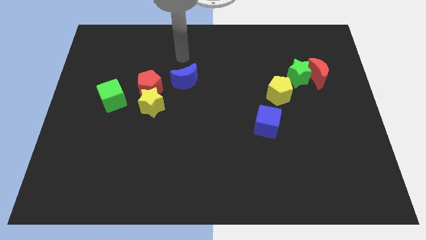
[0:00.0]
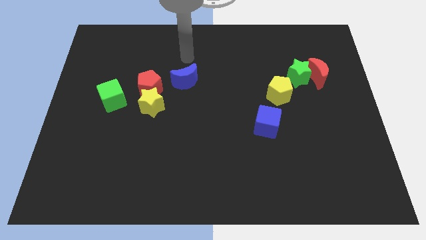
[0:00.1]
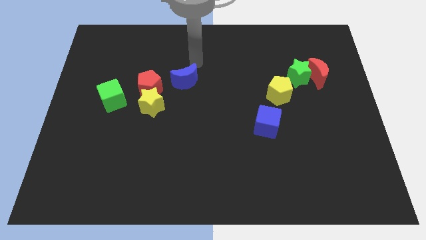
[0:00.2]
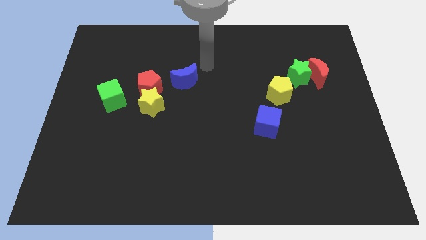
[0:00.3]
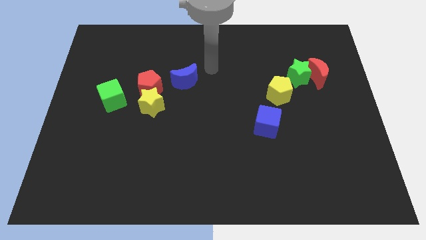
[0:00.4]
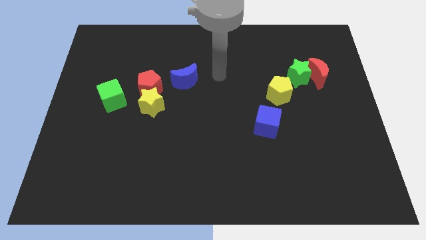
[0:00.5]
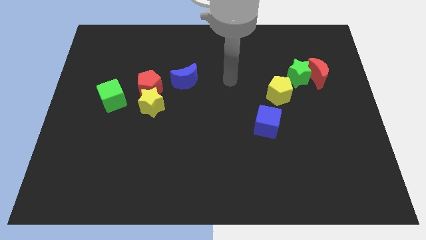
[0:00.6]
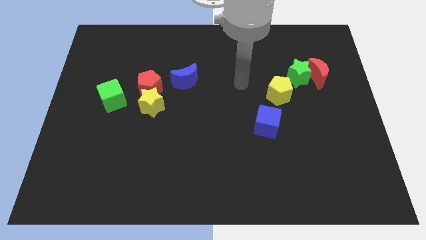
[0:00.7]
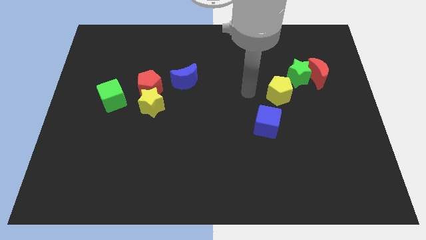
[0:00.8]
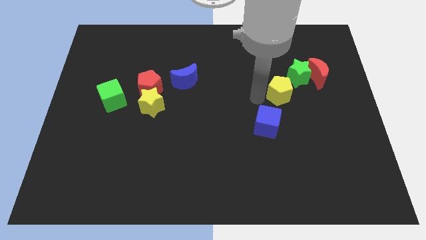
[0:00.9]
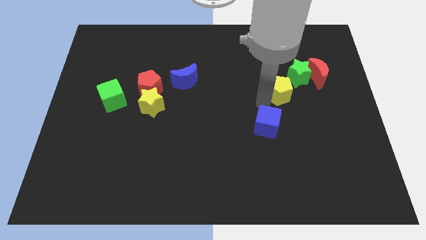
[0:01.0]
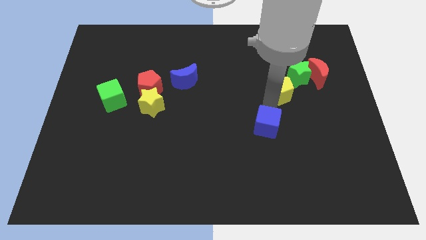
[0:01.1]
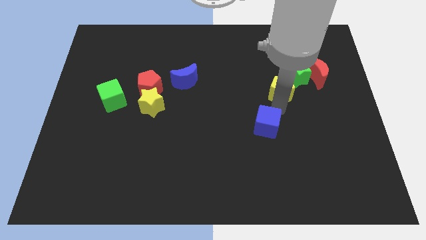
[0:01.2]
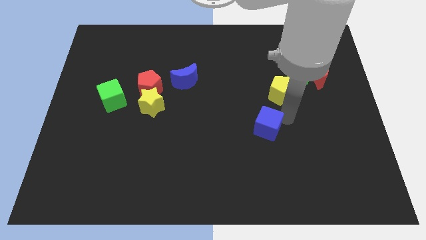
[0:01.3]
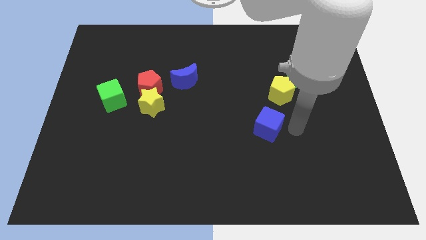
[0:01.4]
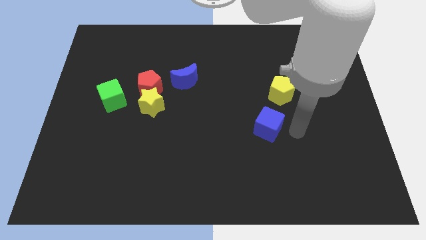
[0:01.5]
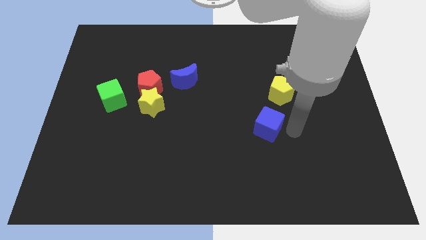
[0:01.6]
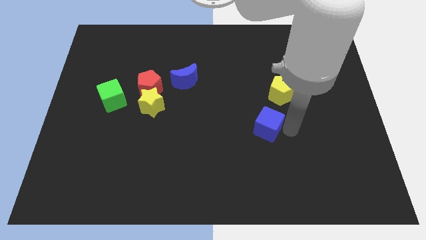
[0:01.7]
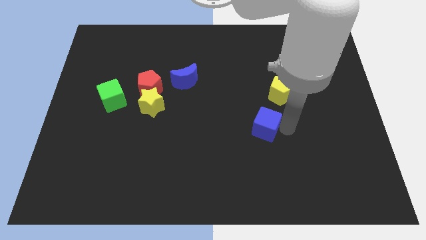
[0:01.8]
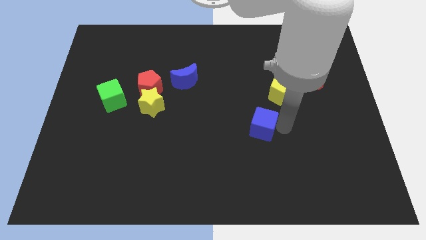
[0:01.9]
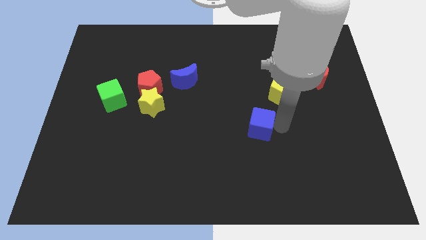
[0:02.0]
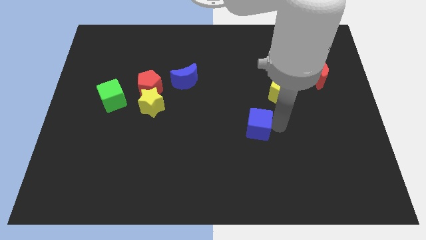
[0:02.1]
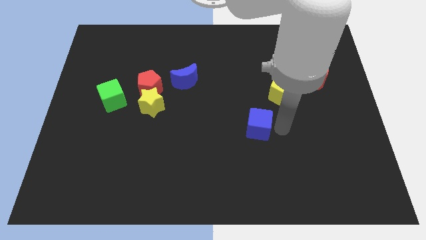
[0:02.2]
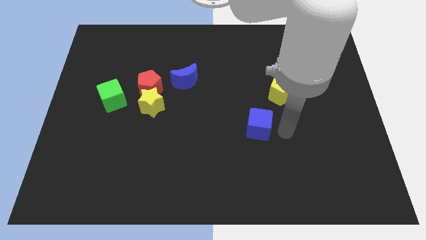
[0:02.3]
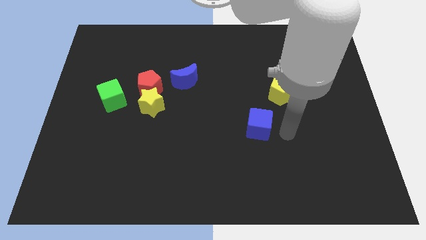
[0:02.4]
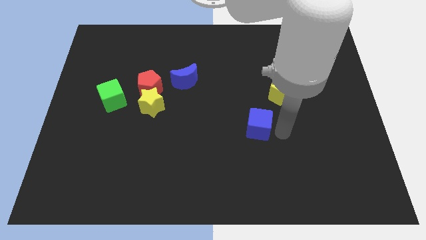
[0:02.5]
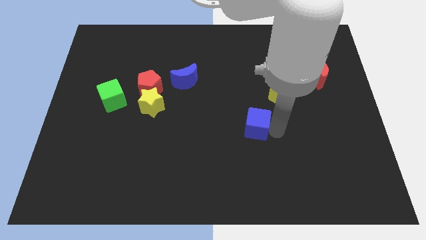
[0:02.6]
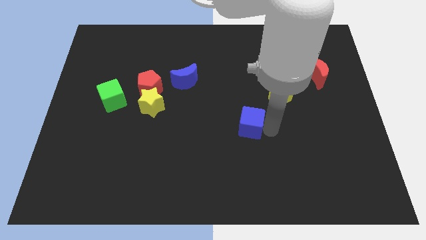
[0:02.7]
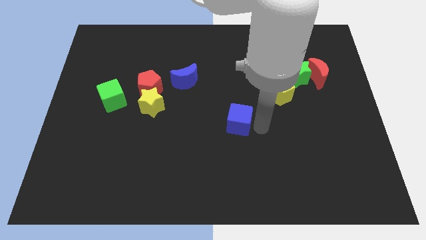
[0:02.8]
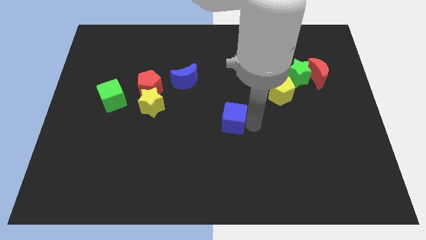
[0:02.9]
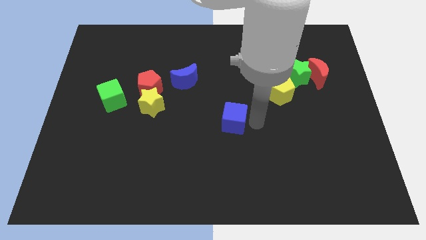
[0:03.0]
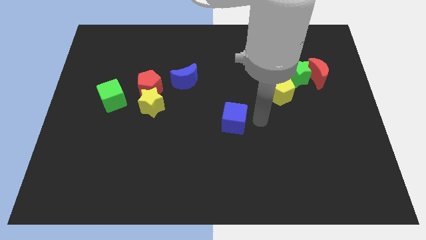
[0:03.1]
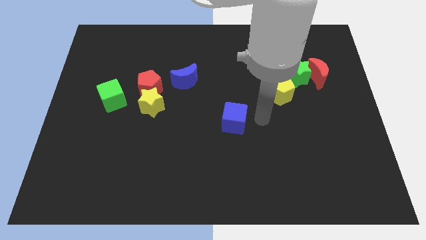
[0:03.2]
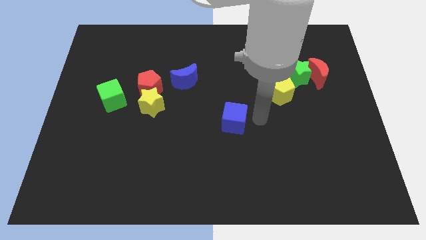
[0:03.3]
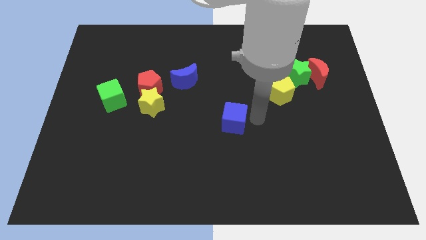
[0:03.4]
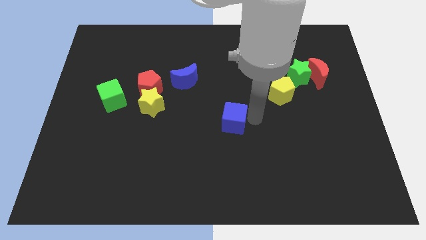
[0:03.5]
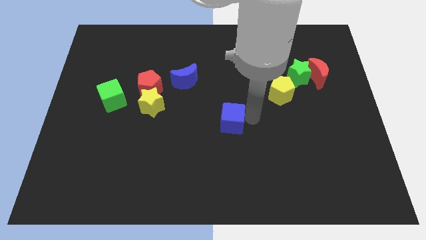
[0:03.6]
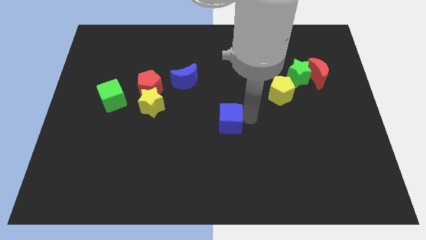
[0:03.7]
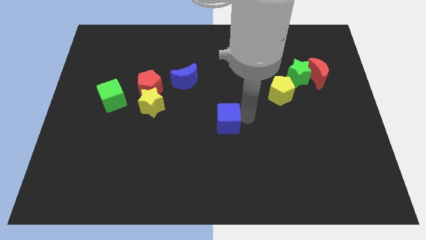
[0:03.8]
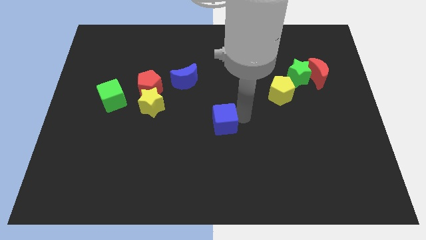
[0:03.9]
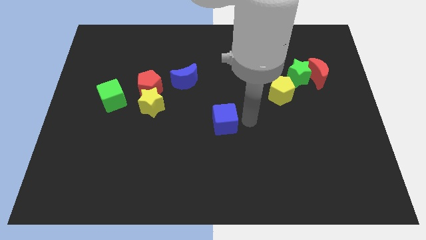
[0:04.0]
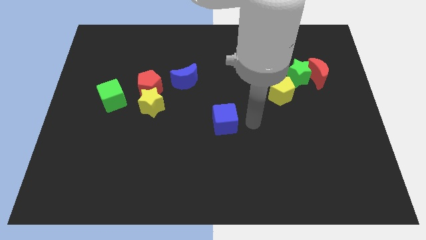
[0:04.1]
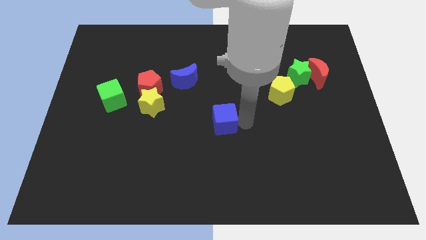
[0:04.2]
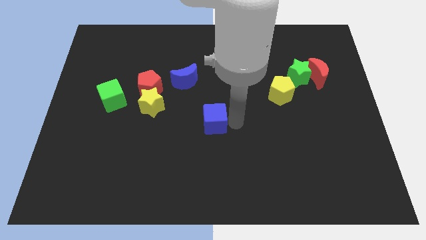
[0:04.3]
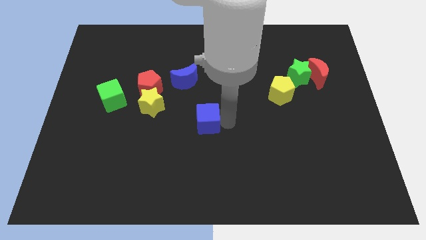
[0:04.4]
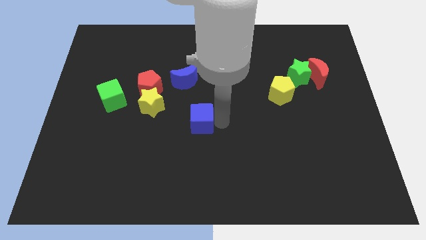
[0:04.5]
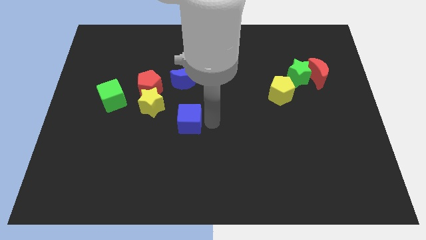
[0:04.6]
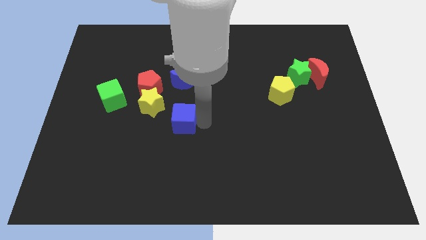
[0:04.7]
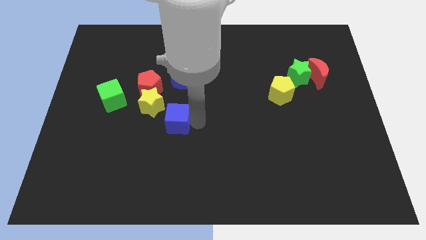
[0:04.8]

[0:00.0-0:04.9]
move the blue cube to the left

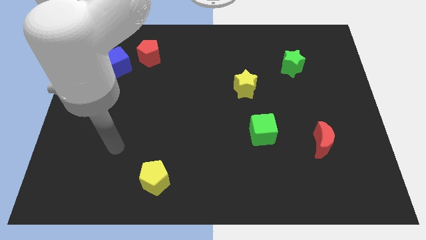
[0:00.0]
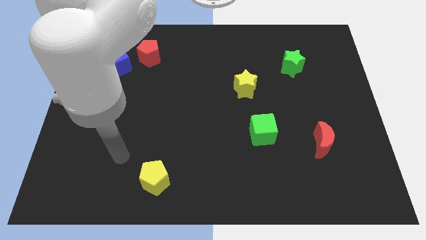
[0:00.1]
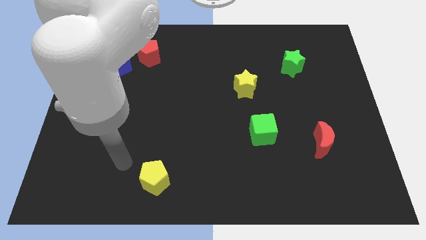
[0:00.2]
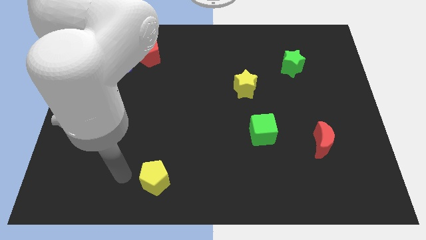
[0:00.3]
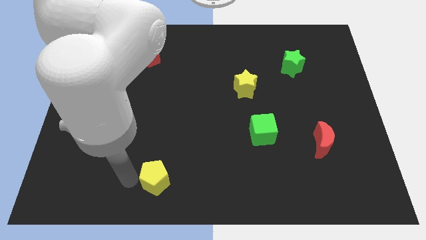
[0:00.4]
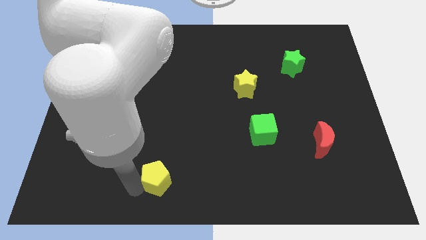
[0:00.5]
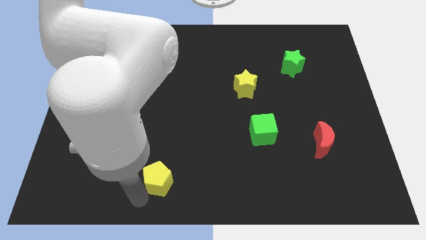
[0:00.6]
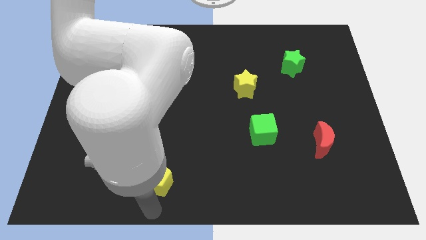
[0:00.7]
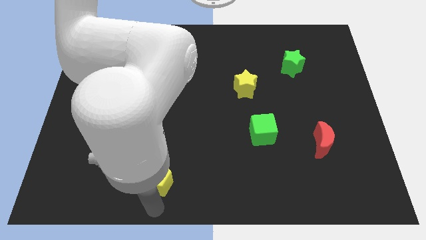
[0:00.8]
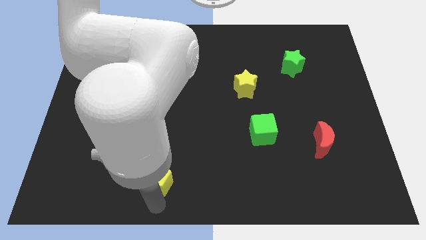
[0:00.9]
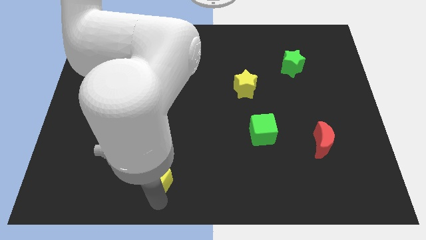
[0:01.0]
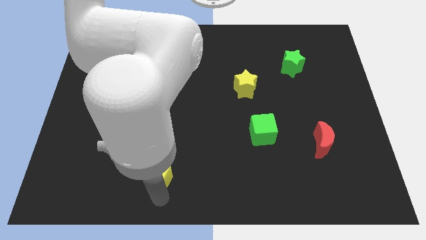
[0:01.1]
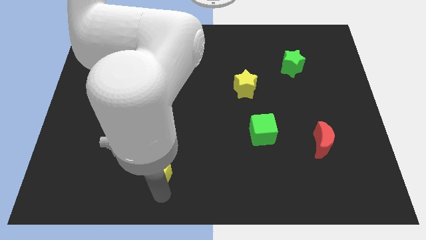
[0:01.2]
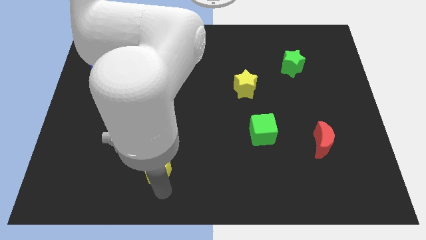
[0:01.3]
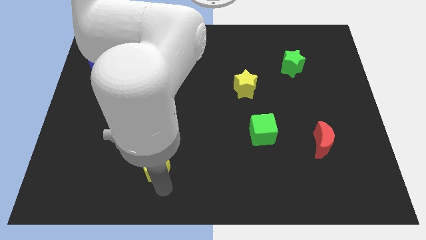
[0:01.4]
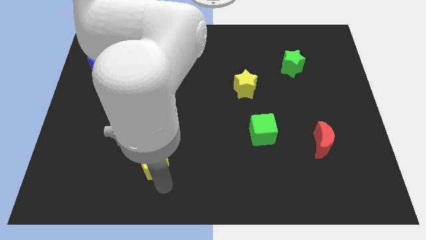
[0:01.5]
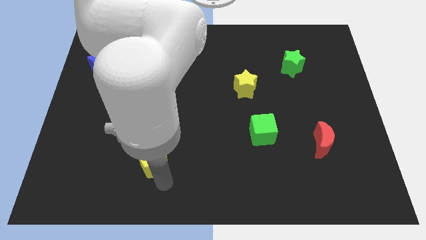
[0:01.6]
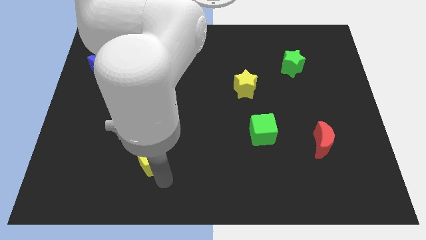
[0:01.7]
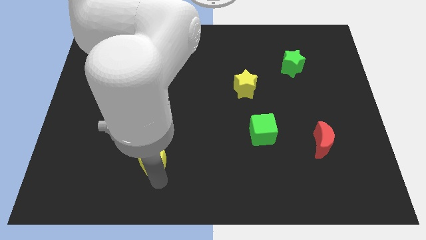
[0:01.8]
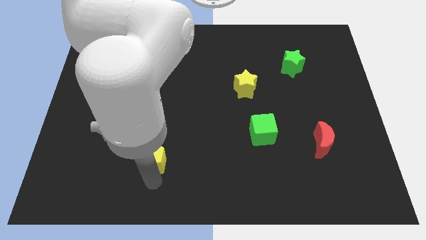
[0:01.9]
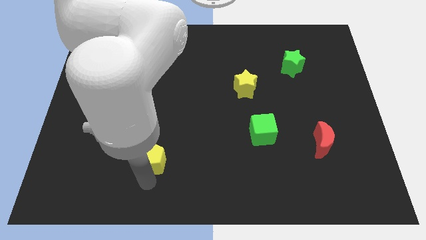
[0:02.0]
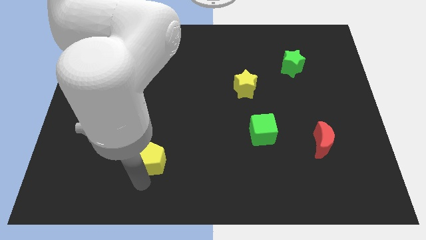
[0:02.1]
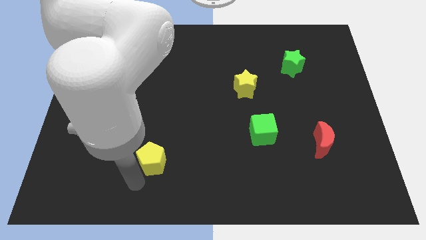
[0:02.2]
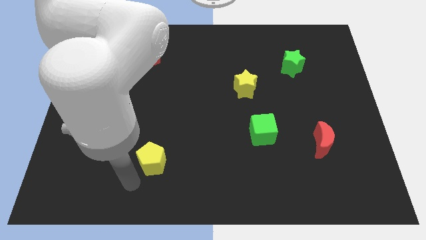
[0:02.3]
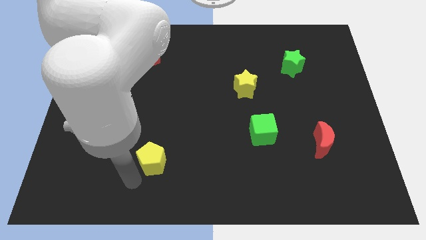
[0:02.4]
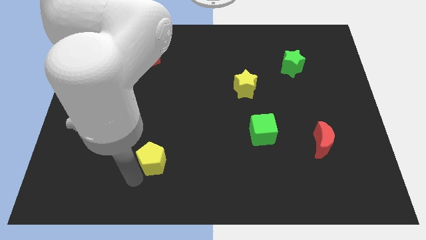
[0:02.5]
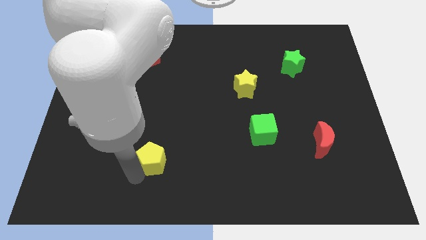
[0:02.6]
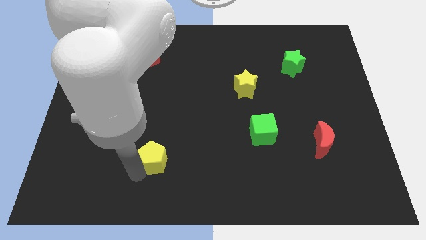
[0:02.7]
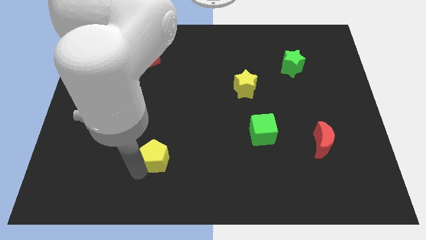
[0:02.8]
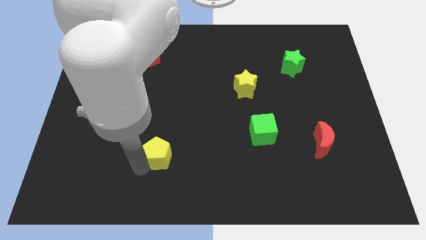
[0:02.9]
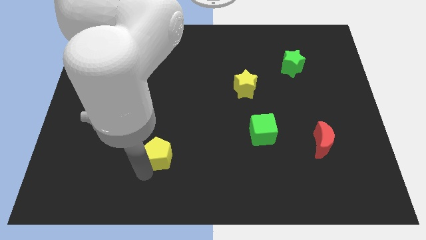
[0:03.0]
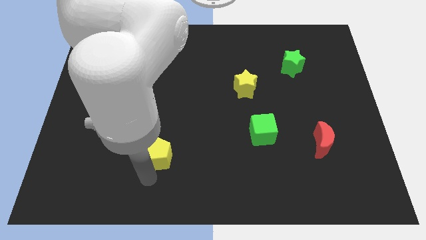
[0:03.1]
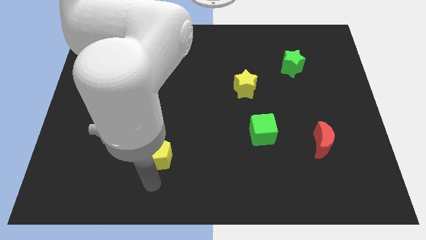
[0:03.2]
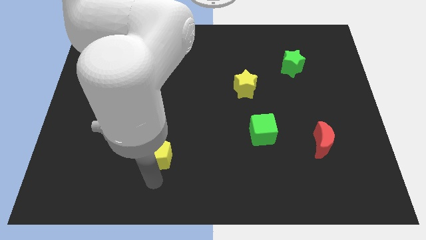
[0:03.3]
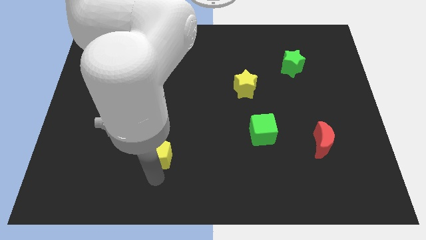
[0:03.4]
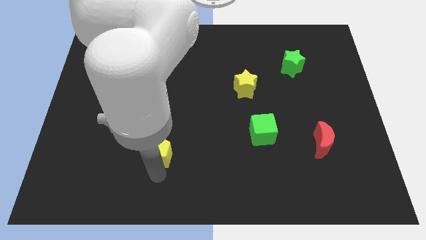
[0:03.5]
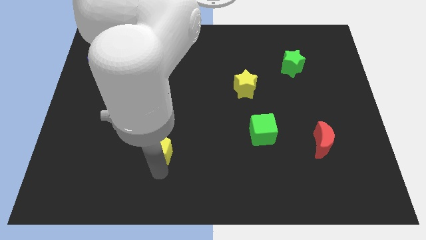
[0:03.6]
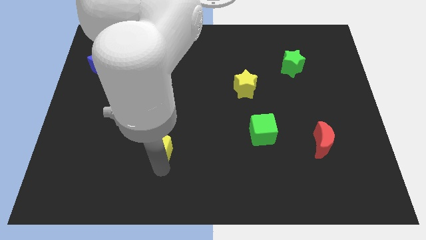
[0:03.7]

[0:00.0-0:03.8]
slightly push the yellow pentagon upwards
